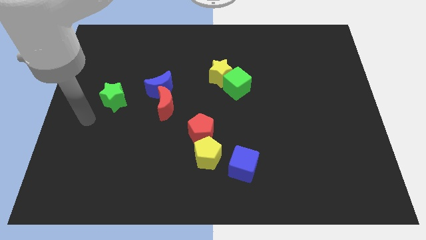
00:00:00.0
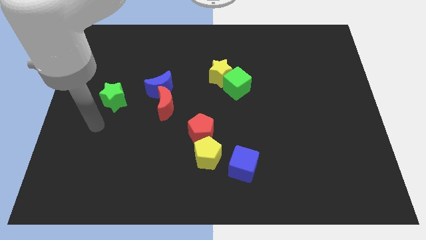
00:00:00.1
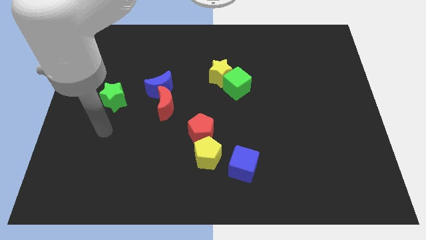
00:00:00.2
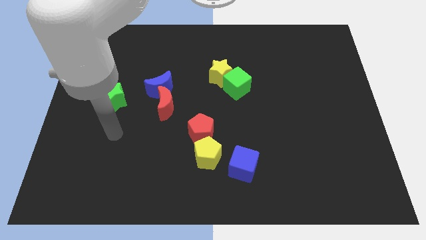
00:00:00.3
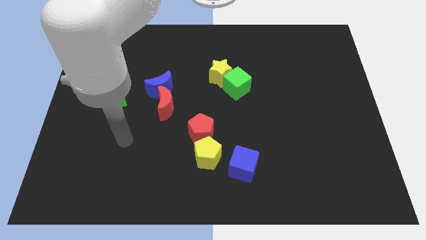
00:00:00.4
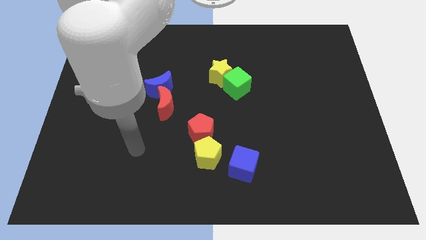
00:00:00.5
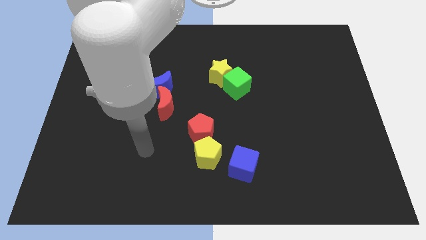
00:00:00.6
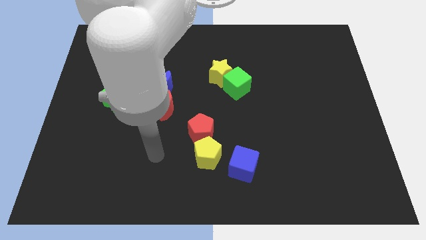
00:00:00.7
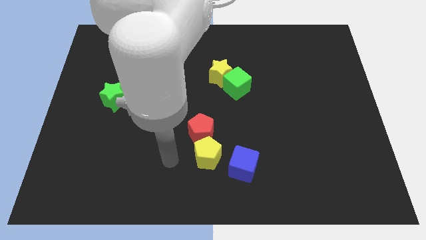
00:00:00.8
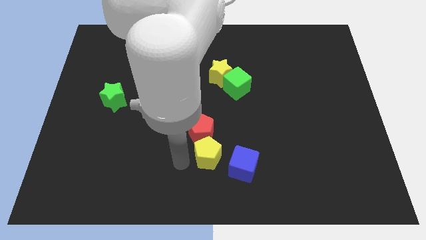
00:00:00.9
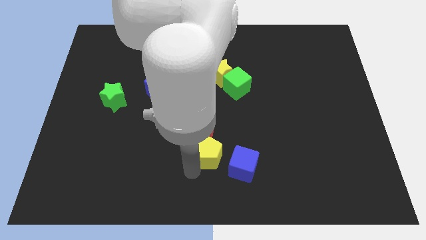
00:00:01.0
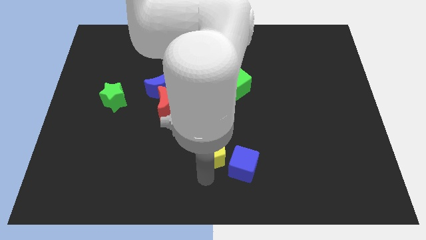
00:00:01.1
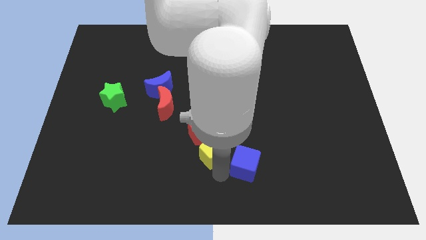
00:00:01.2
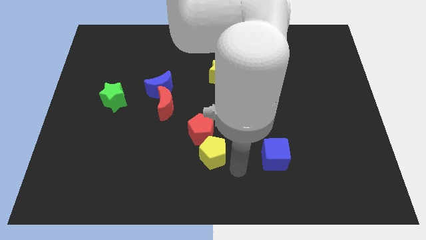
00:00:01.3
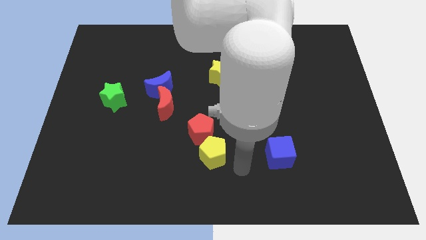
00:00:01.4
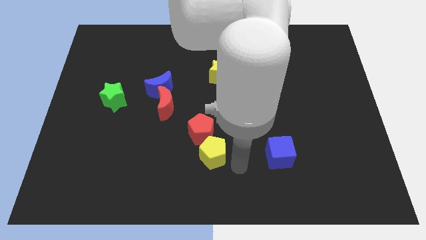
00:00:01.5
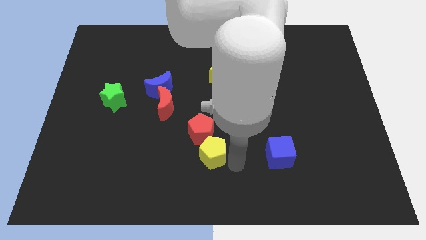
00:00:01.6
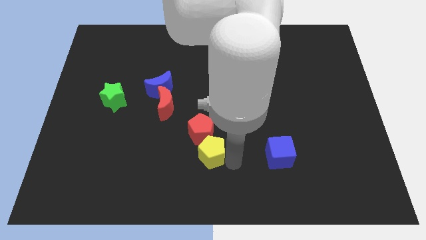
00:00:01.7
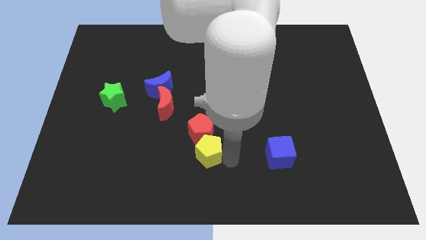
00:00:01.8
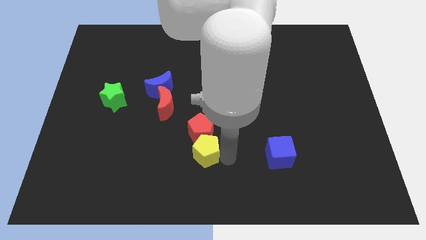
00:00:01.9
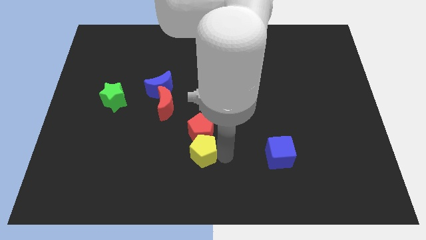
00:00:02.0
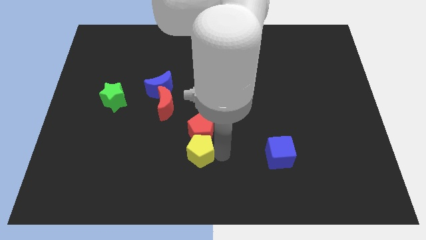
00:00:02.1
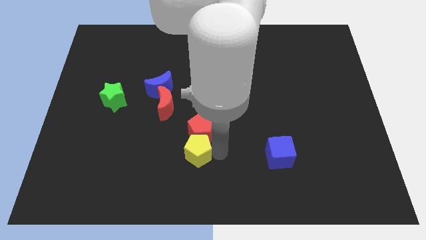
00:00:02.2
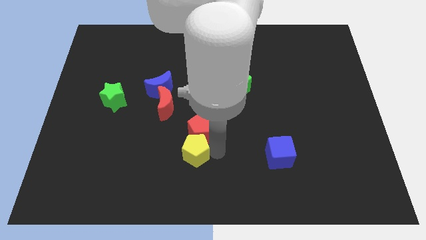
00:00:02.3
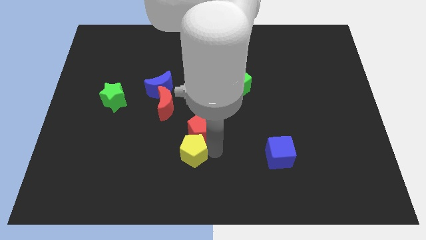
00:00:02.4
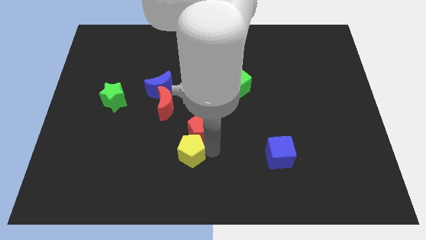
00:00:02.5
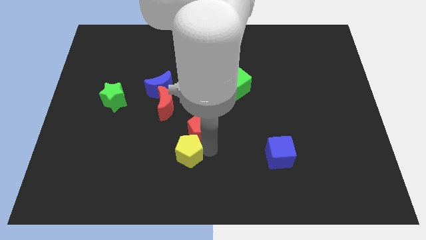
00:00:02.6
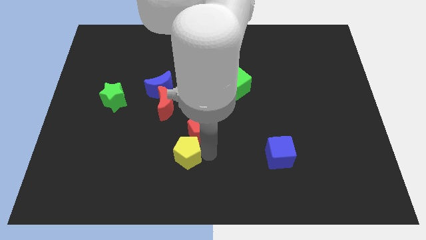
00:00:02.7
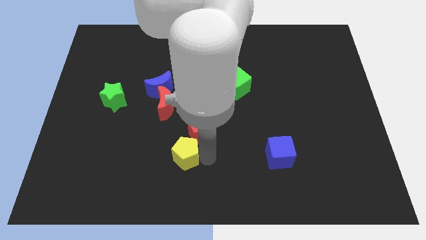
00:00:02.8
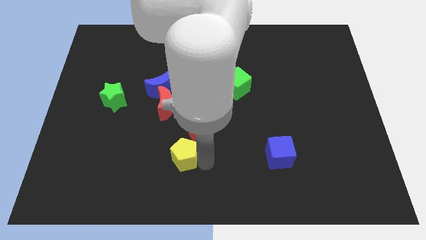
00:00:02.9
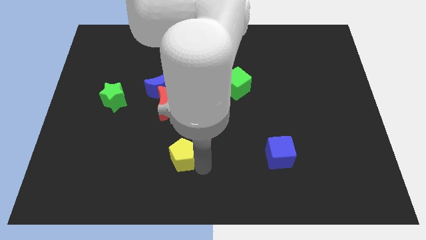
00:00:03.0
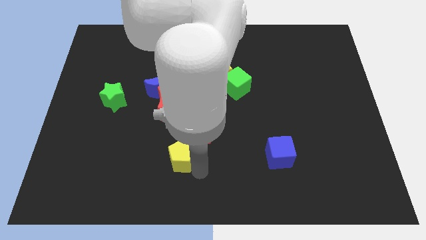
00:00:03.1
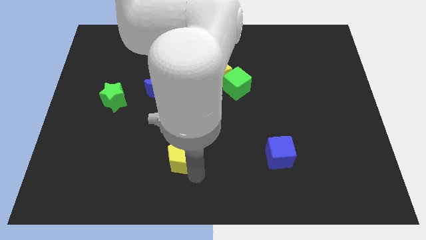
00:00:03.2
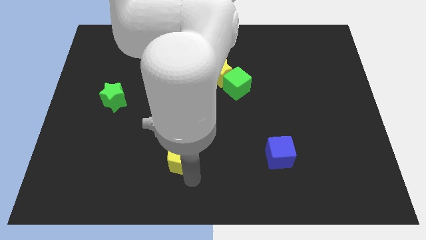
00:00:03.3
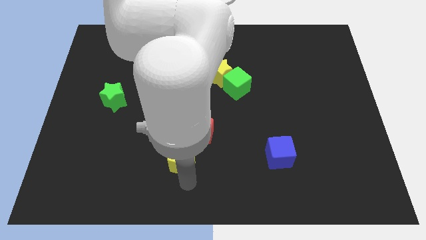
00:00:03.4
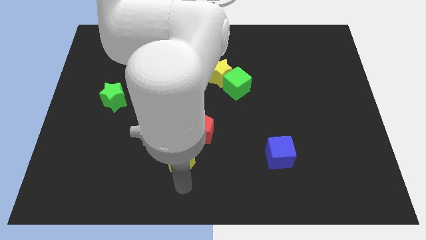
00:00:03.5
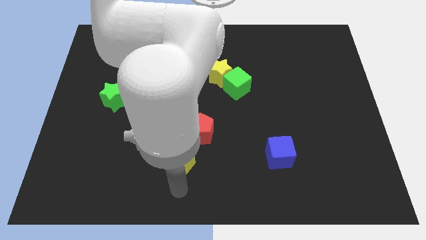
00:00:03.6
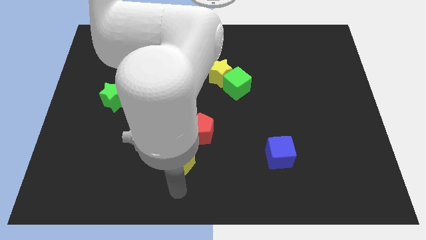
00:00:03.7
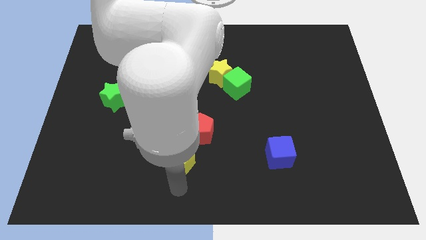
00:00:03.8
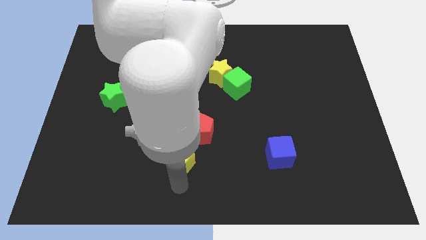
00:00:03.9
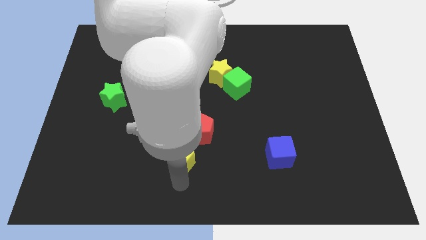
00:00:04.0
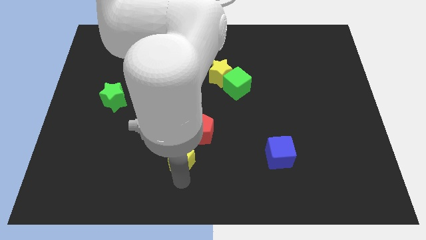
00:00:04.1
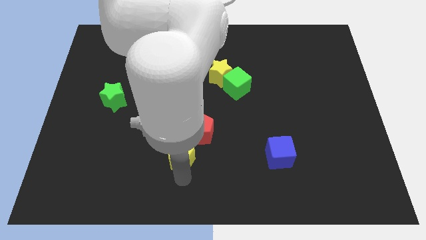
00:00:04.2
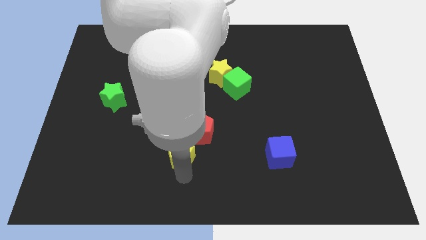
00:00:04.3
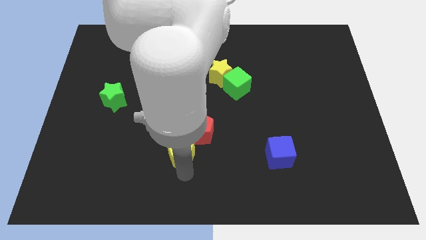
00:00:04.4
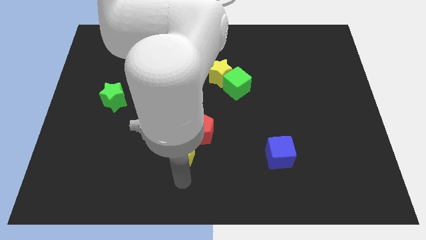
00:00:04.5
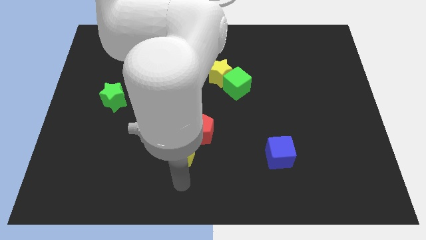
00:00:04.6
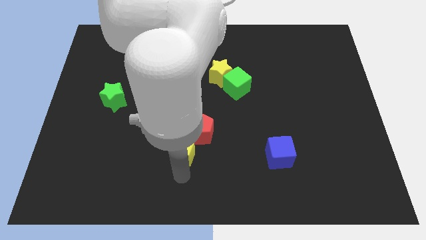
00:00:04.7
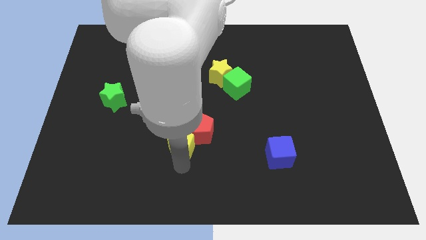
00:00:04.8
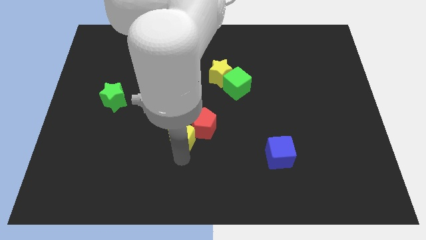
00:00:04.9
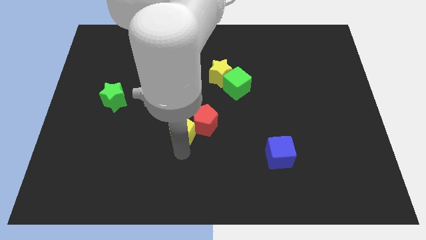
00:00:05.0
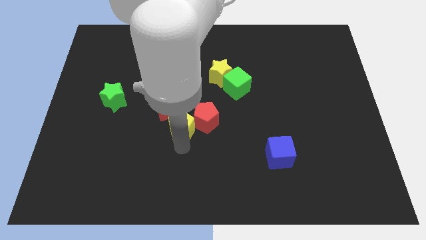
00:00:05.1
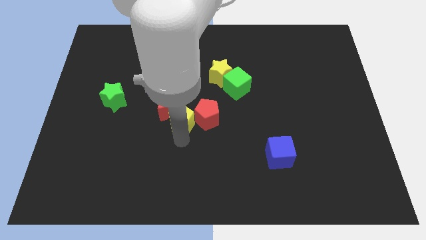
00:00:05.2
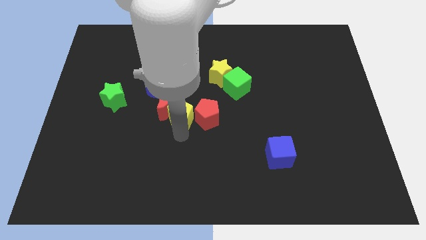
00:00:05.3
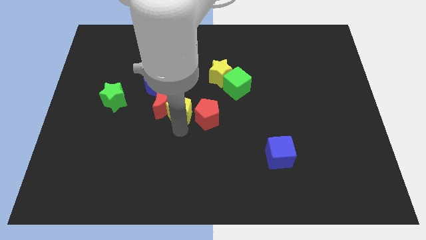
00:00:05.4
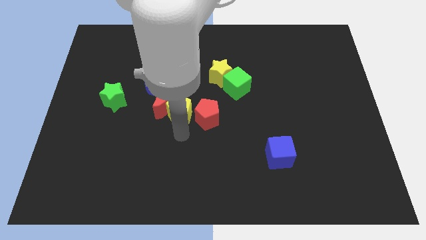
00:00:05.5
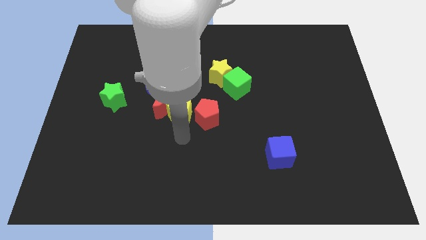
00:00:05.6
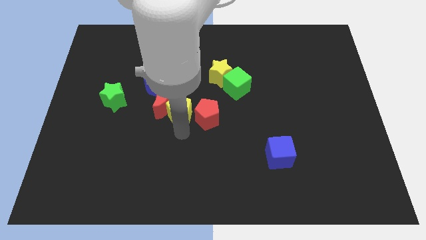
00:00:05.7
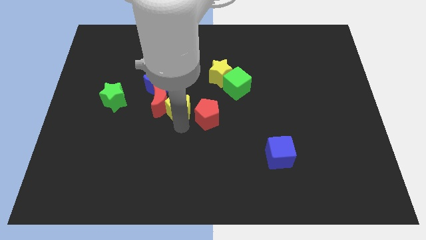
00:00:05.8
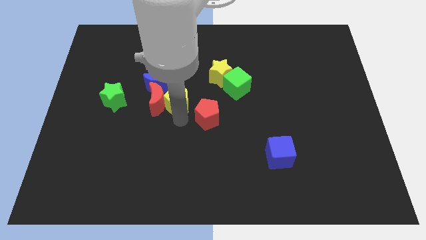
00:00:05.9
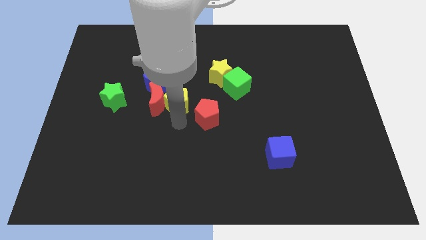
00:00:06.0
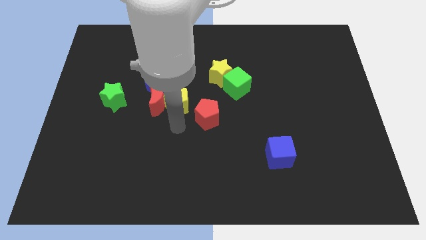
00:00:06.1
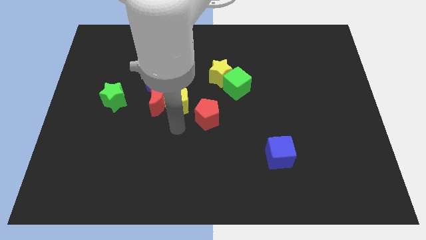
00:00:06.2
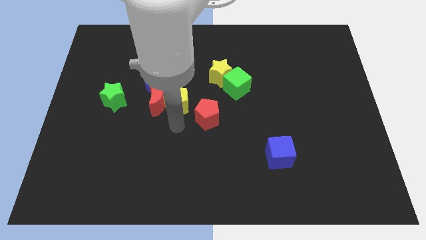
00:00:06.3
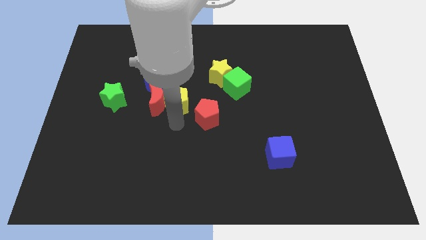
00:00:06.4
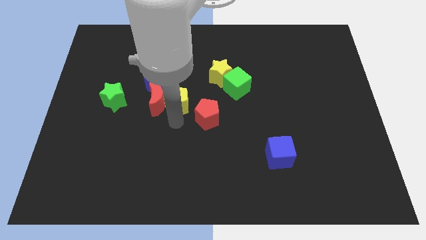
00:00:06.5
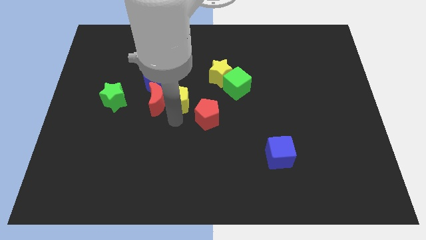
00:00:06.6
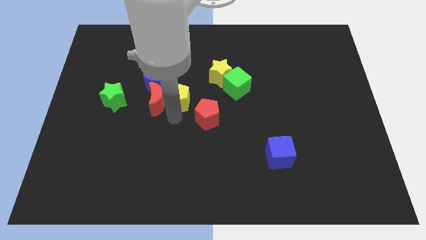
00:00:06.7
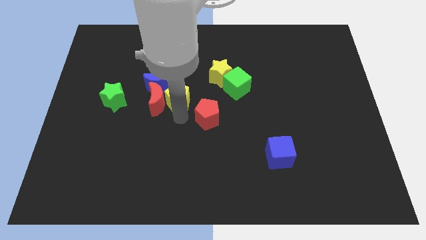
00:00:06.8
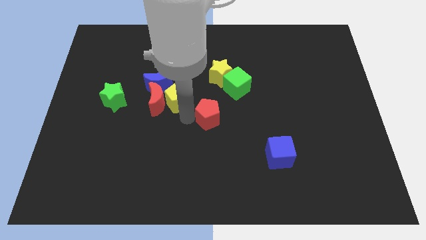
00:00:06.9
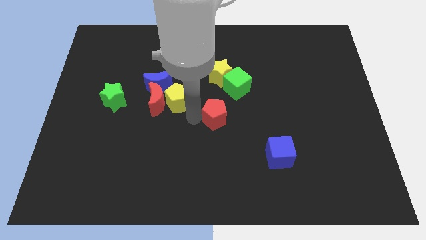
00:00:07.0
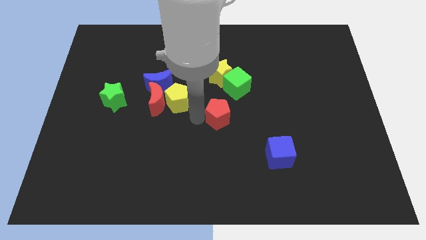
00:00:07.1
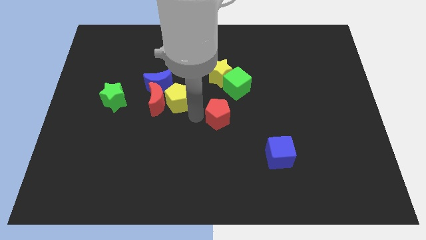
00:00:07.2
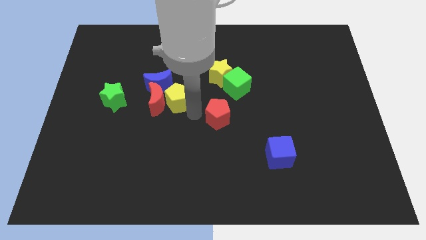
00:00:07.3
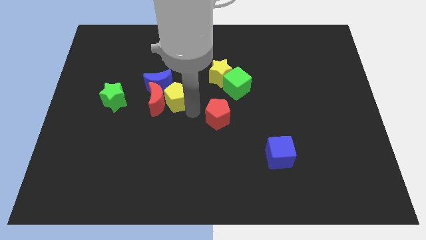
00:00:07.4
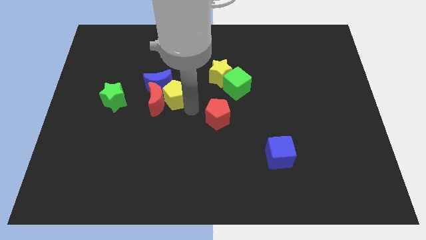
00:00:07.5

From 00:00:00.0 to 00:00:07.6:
slide the yellow pentagon to the blue moon
